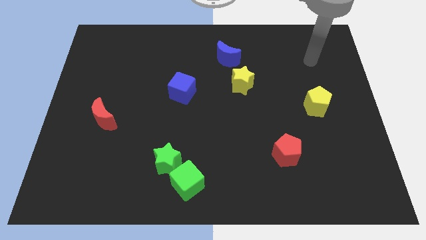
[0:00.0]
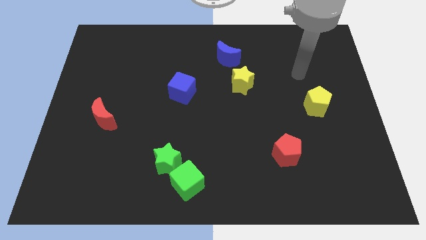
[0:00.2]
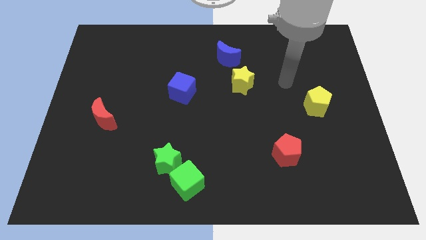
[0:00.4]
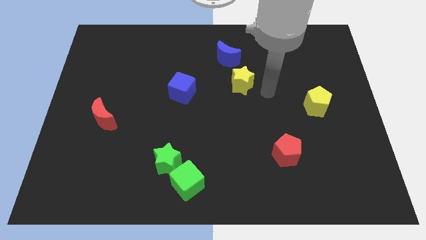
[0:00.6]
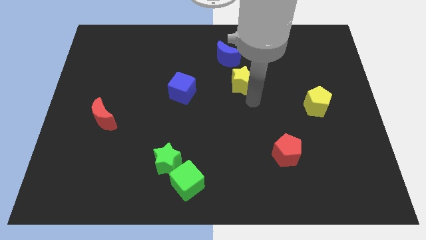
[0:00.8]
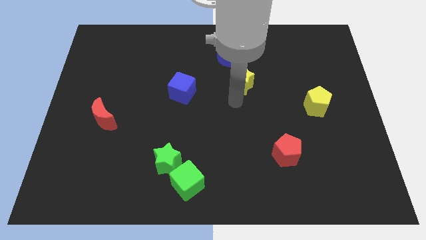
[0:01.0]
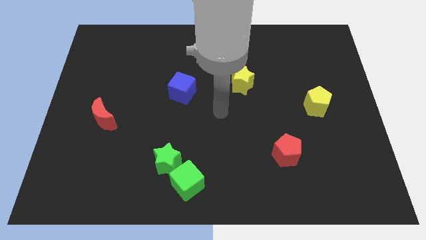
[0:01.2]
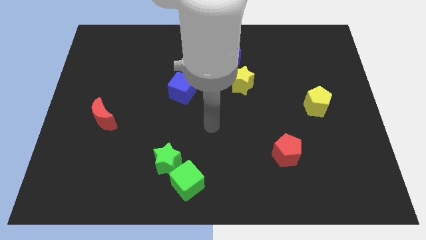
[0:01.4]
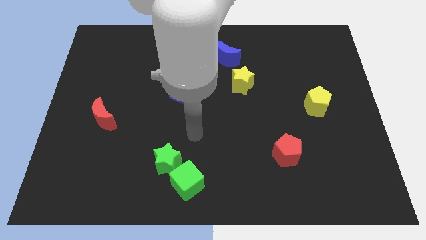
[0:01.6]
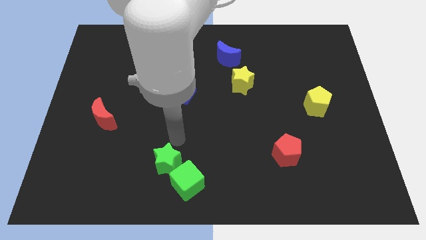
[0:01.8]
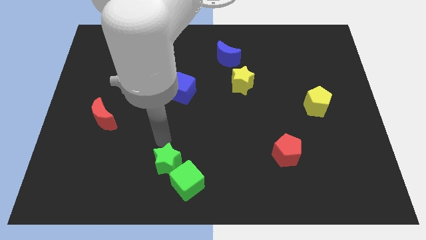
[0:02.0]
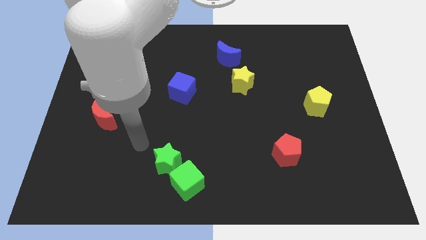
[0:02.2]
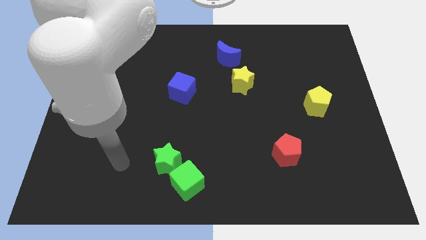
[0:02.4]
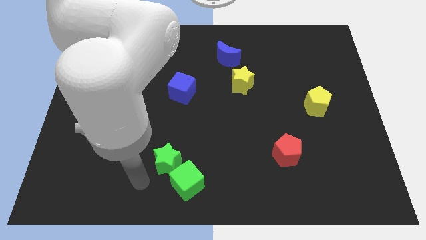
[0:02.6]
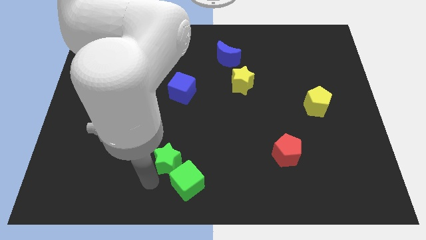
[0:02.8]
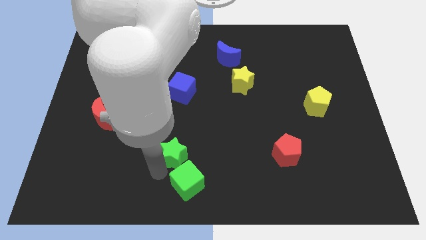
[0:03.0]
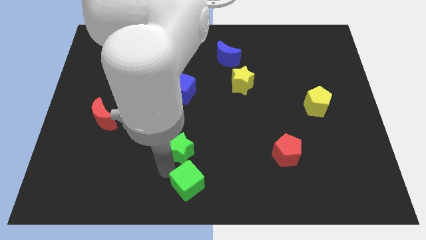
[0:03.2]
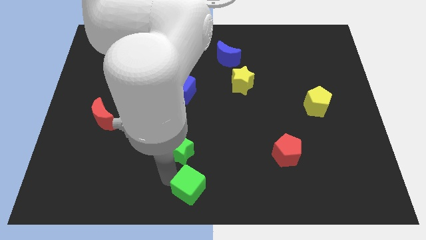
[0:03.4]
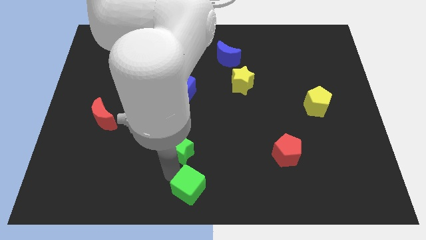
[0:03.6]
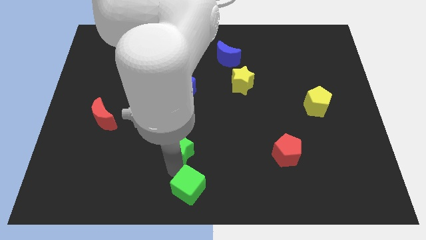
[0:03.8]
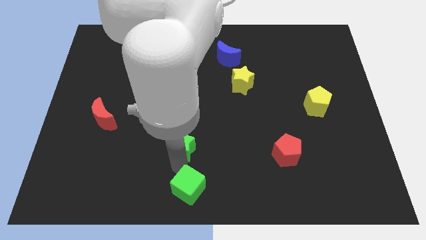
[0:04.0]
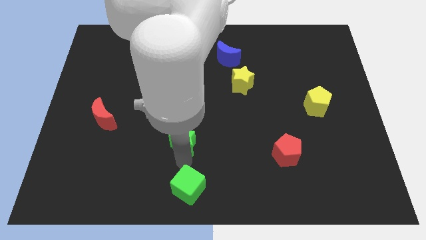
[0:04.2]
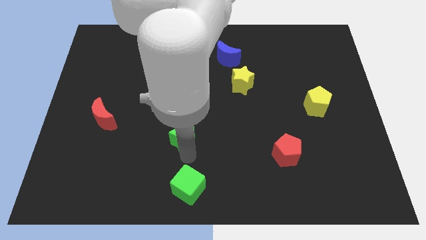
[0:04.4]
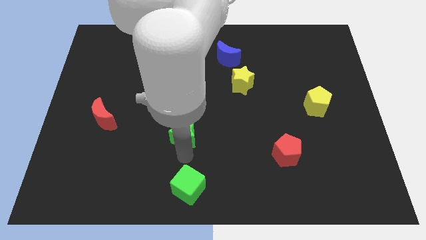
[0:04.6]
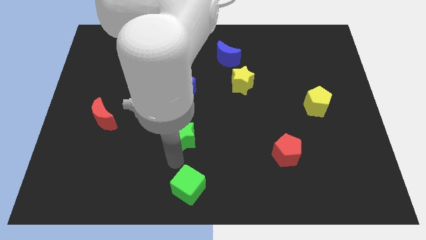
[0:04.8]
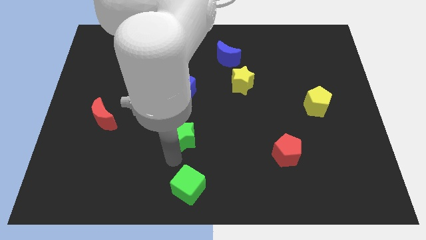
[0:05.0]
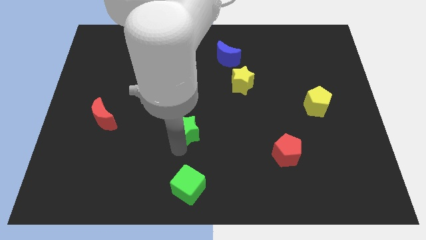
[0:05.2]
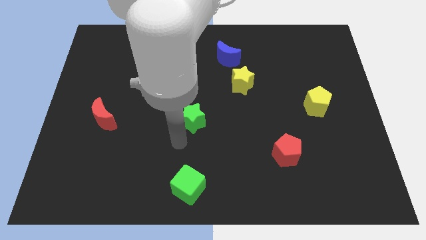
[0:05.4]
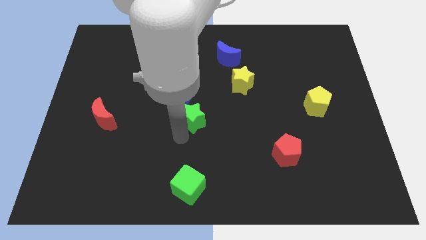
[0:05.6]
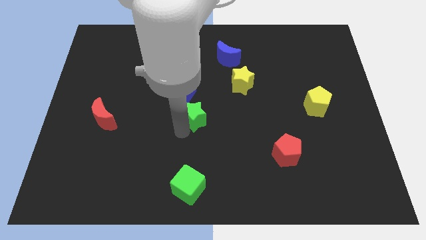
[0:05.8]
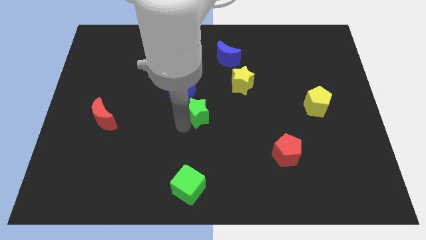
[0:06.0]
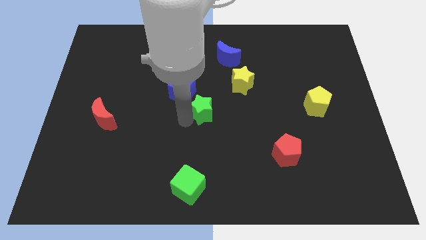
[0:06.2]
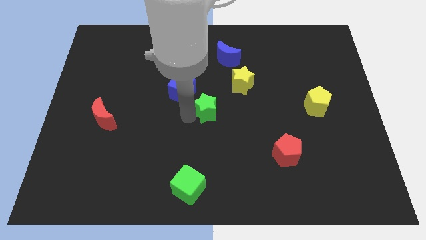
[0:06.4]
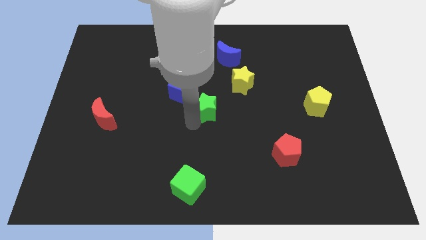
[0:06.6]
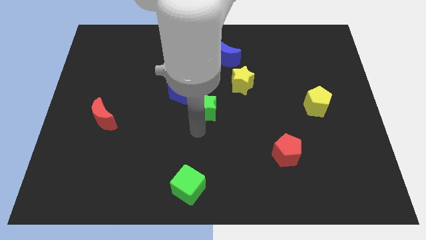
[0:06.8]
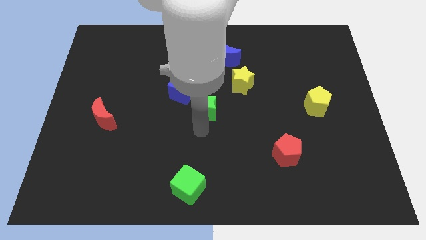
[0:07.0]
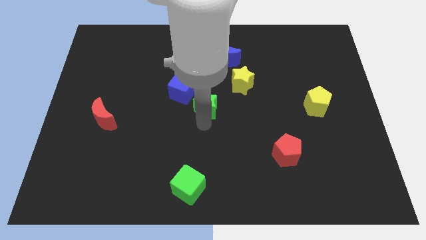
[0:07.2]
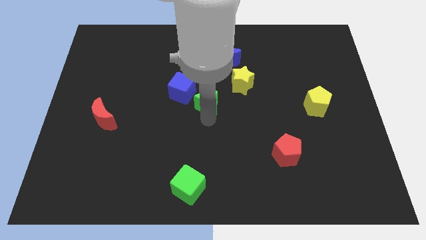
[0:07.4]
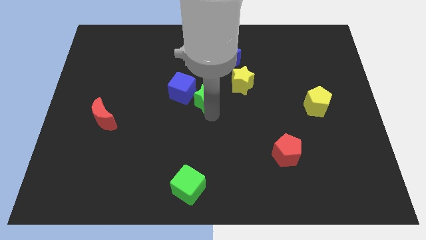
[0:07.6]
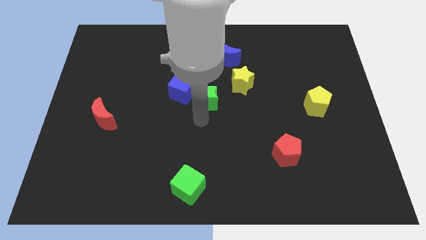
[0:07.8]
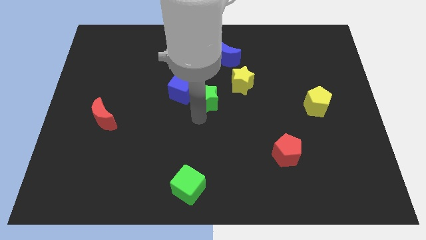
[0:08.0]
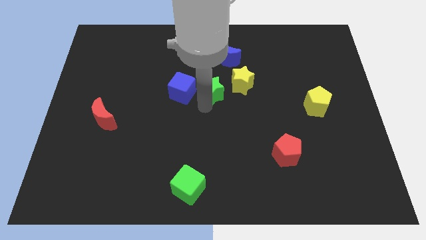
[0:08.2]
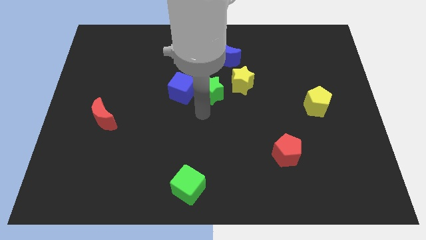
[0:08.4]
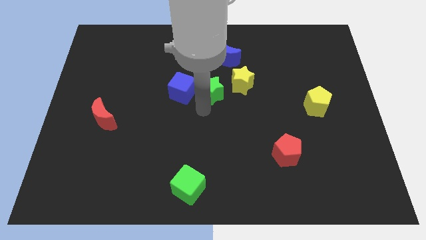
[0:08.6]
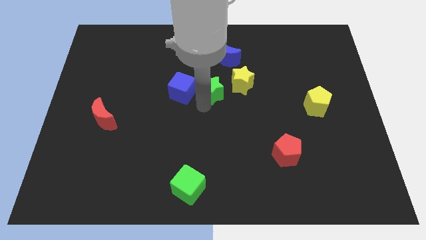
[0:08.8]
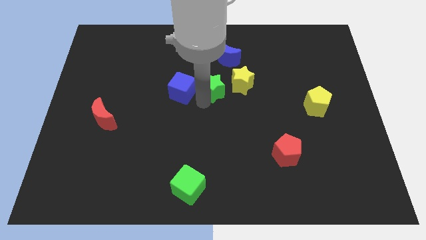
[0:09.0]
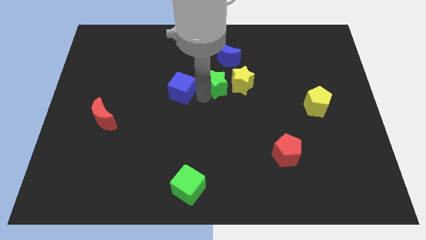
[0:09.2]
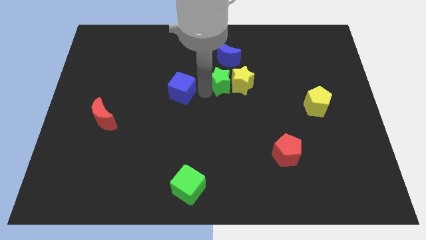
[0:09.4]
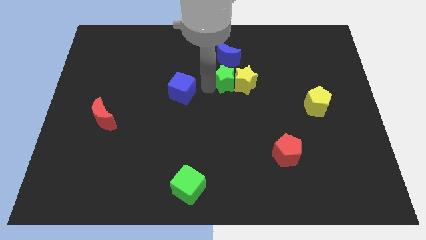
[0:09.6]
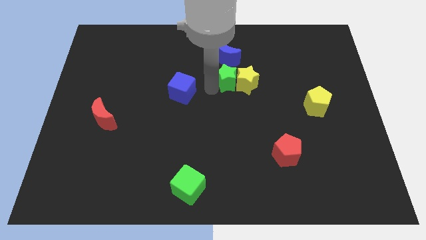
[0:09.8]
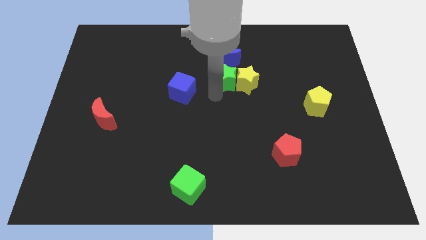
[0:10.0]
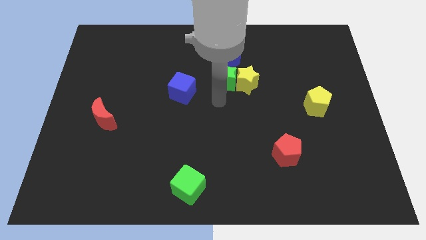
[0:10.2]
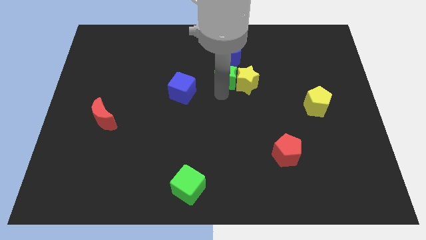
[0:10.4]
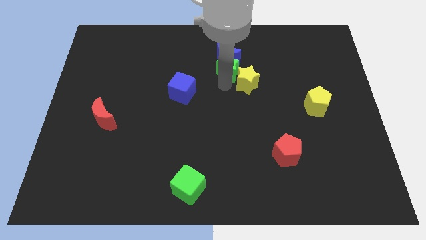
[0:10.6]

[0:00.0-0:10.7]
slide the green star close to the blue moon

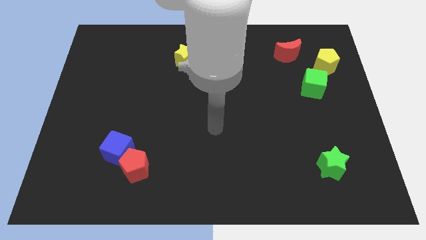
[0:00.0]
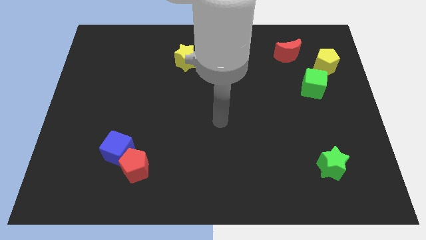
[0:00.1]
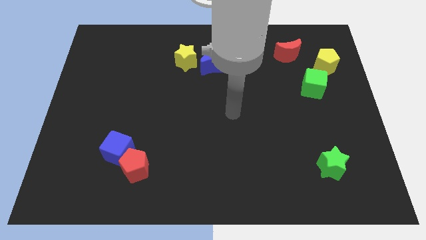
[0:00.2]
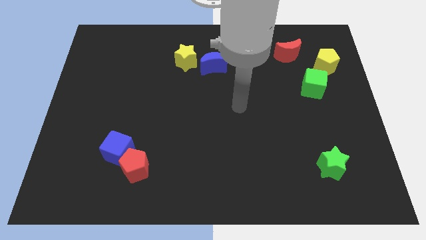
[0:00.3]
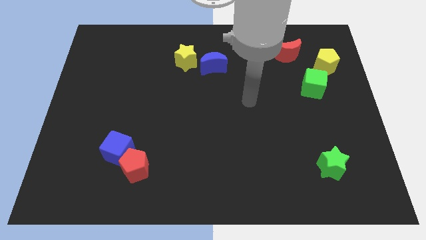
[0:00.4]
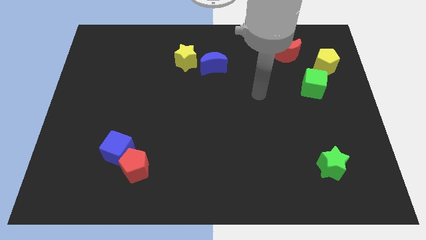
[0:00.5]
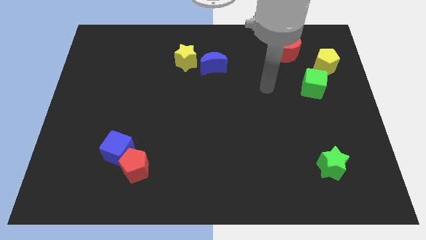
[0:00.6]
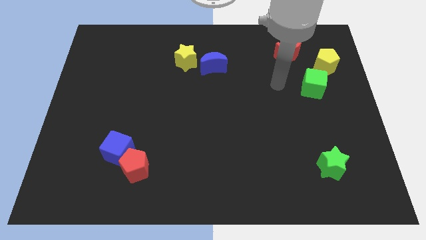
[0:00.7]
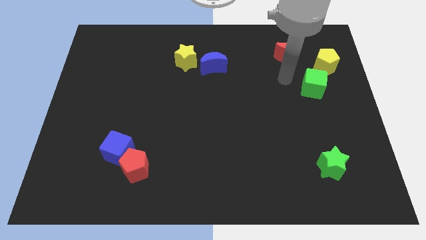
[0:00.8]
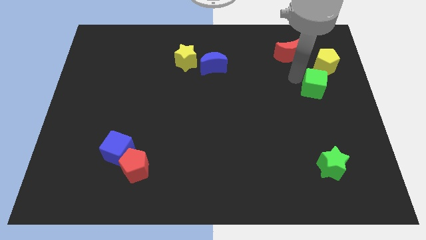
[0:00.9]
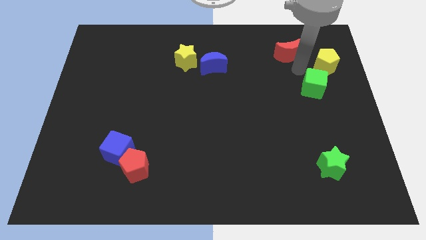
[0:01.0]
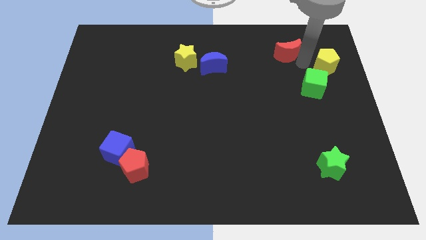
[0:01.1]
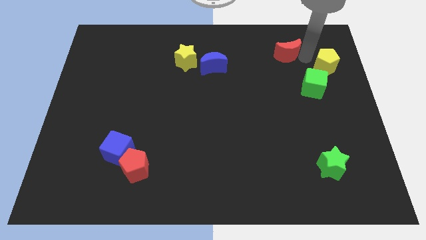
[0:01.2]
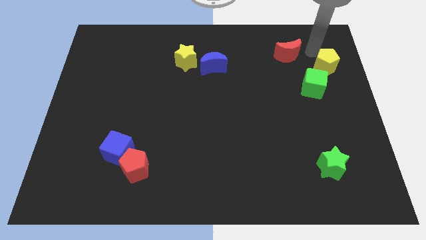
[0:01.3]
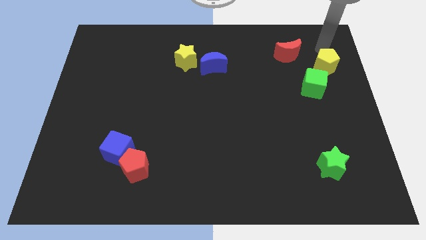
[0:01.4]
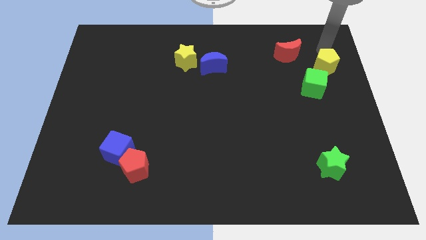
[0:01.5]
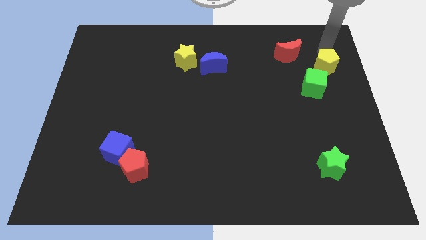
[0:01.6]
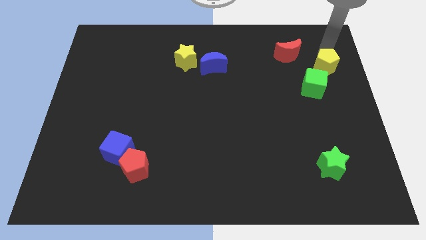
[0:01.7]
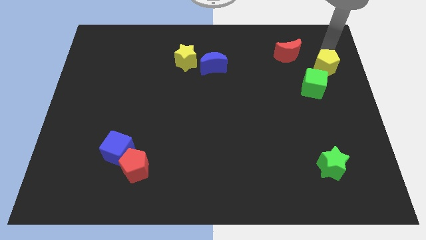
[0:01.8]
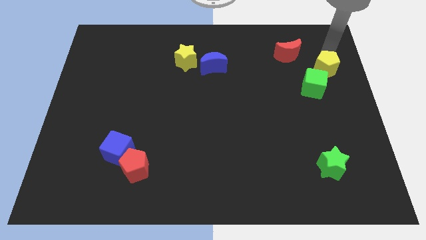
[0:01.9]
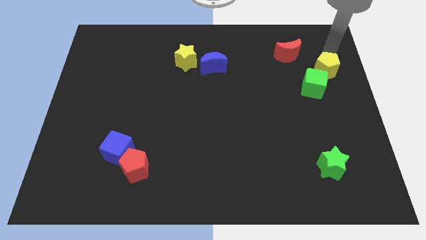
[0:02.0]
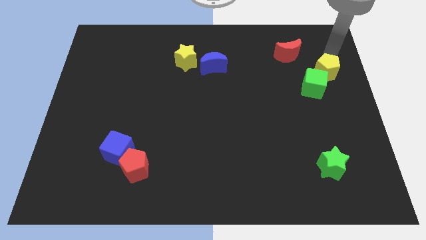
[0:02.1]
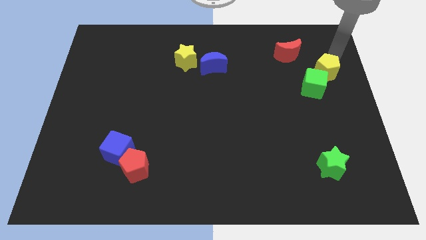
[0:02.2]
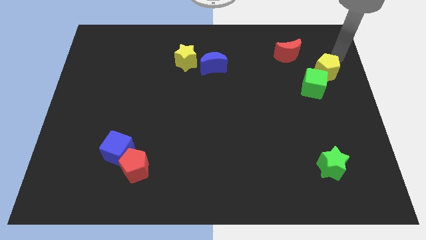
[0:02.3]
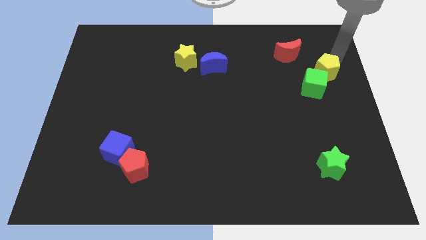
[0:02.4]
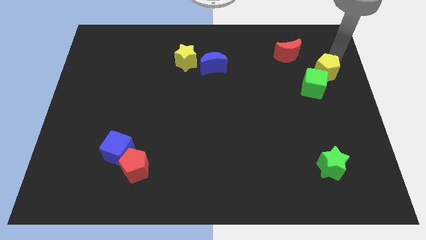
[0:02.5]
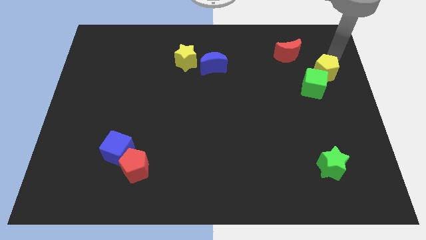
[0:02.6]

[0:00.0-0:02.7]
put the yellow pentagon next to the green cube
